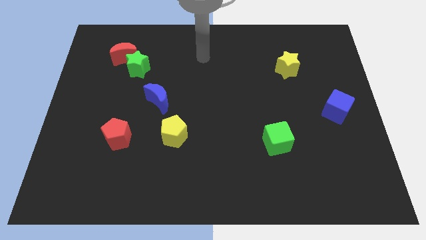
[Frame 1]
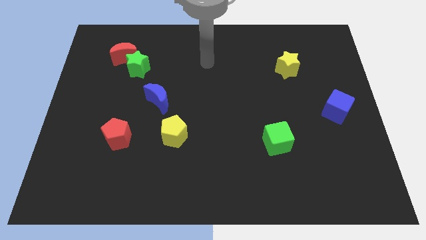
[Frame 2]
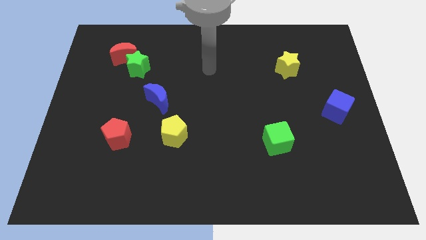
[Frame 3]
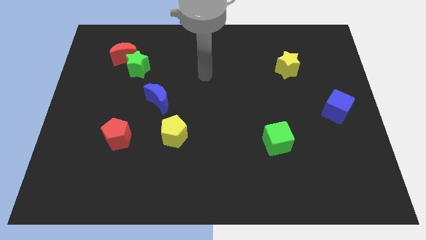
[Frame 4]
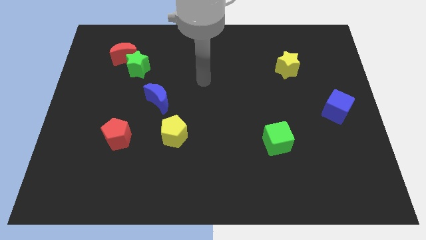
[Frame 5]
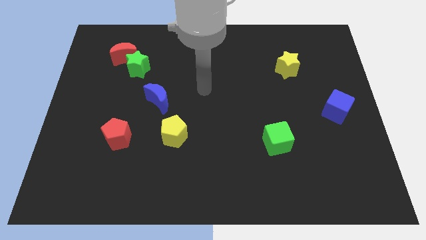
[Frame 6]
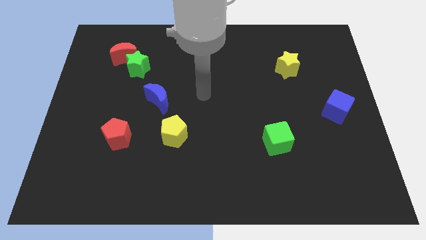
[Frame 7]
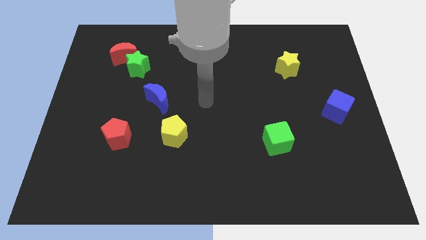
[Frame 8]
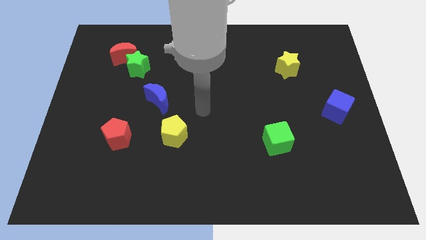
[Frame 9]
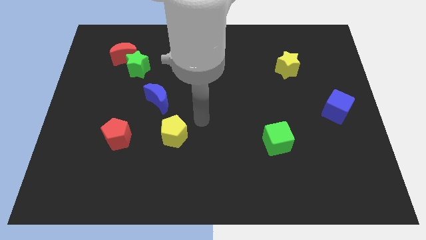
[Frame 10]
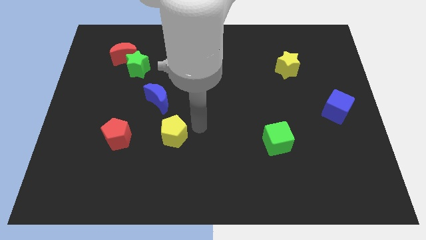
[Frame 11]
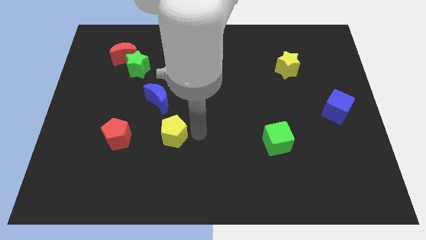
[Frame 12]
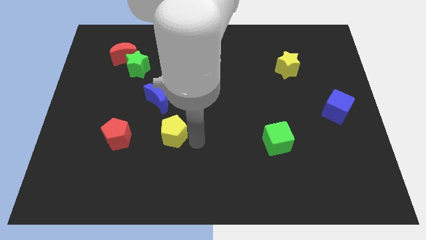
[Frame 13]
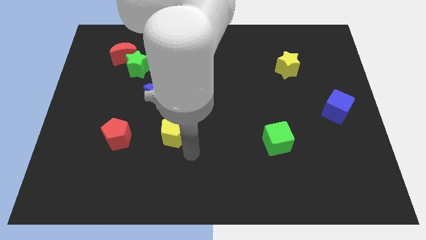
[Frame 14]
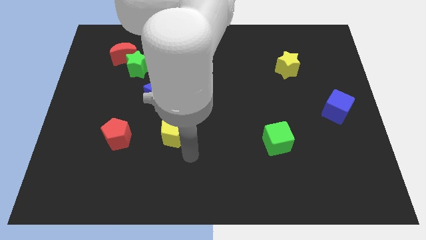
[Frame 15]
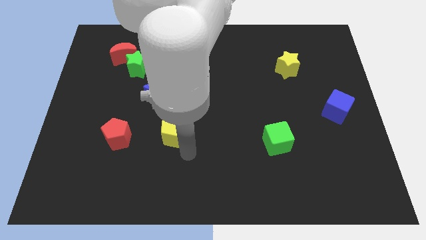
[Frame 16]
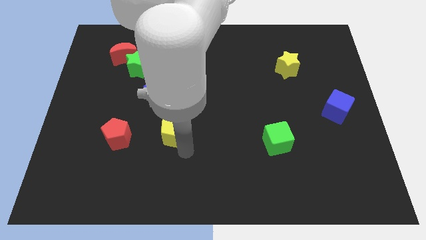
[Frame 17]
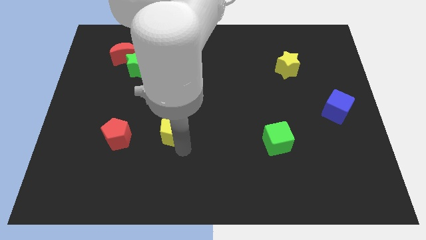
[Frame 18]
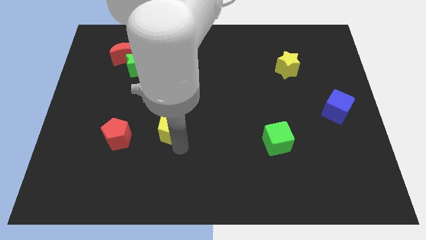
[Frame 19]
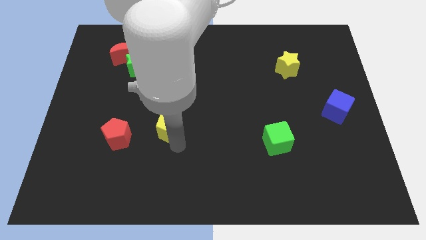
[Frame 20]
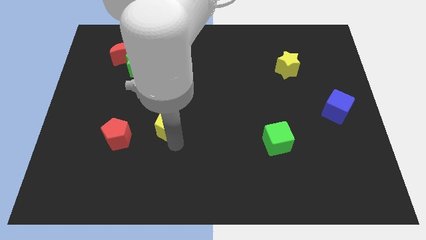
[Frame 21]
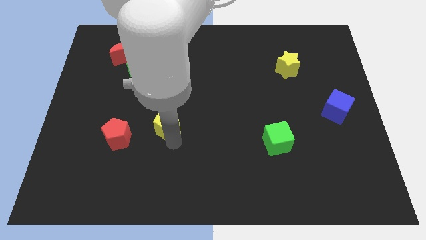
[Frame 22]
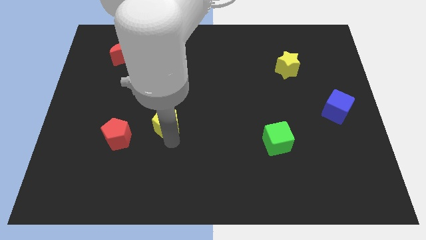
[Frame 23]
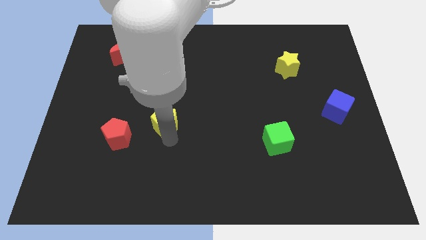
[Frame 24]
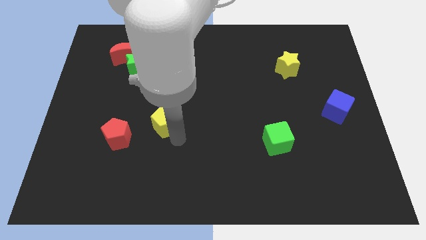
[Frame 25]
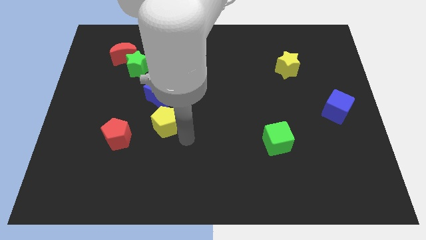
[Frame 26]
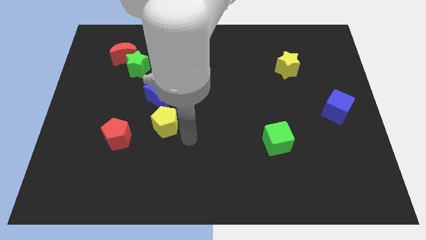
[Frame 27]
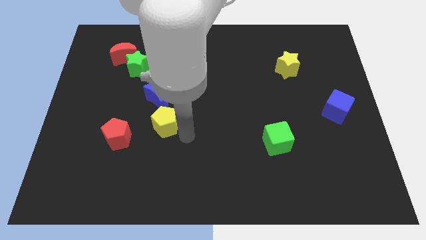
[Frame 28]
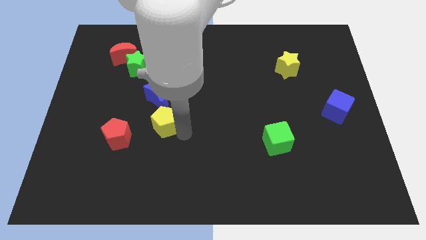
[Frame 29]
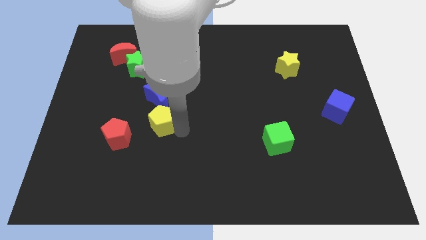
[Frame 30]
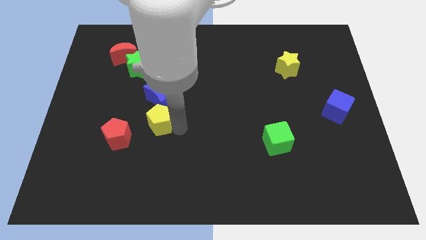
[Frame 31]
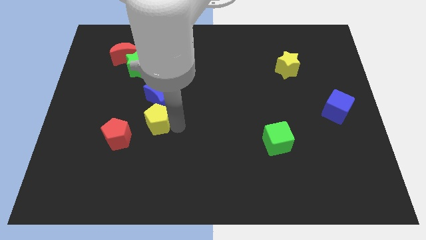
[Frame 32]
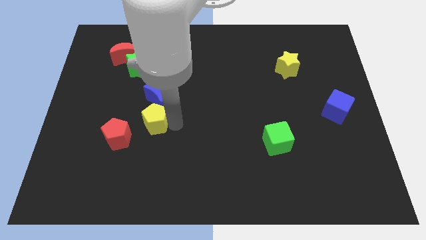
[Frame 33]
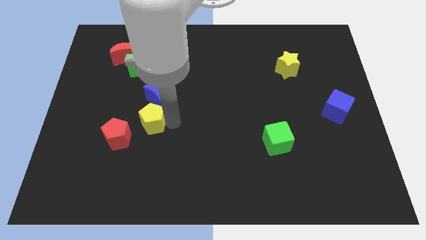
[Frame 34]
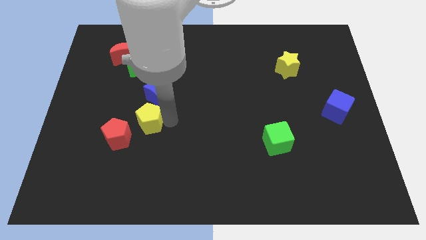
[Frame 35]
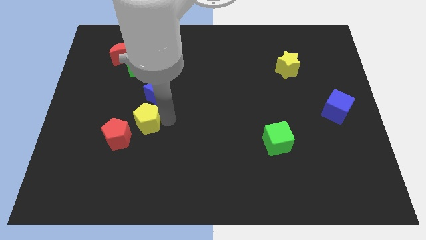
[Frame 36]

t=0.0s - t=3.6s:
push the yellow pentagon upwards and then to the left a bit

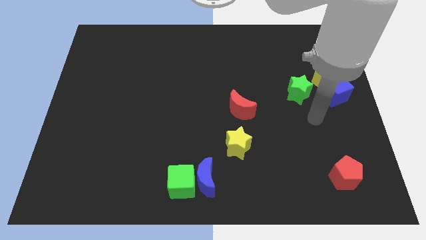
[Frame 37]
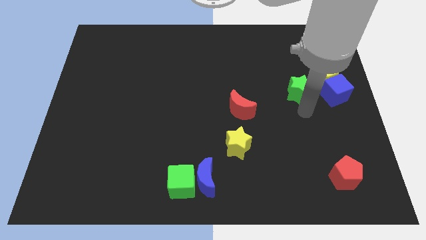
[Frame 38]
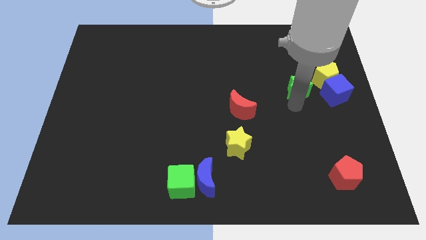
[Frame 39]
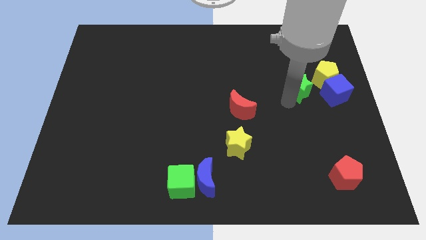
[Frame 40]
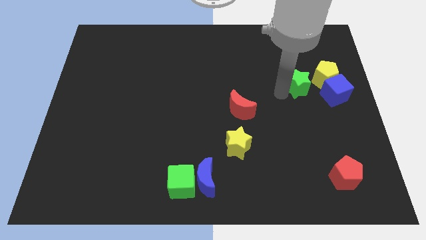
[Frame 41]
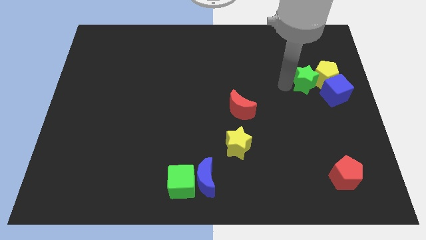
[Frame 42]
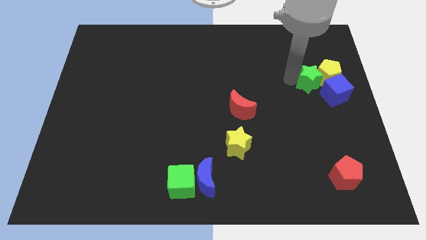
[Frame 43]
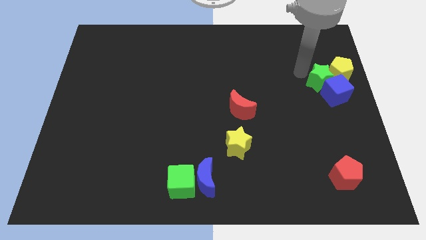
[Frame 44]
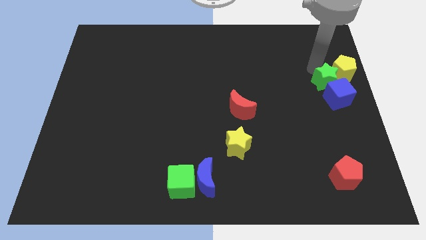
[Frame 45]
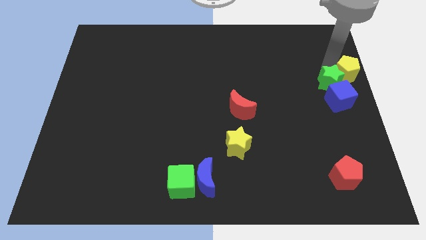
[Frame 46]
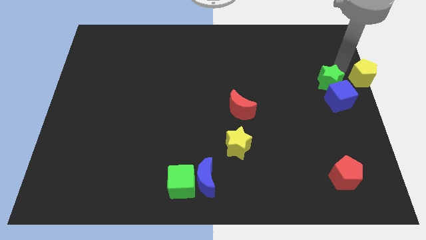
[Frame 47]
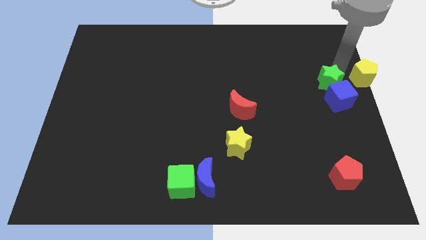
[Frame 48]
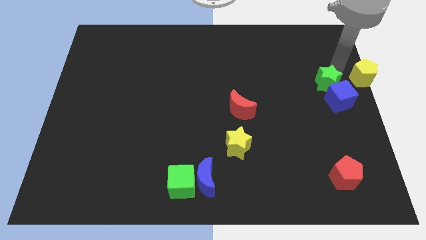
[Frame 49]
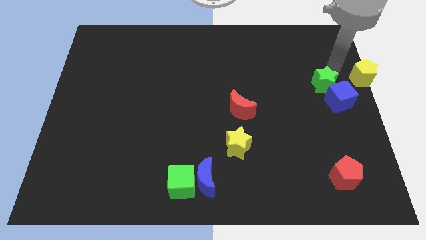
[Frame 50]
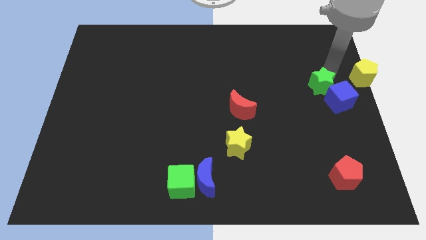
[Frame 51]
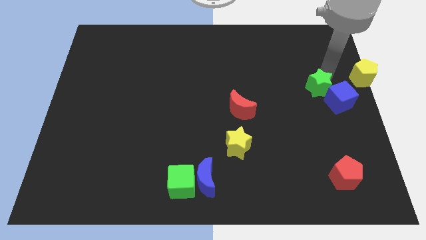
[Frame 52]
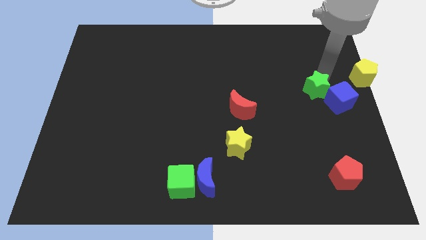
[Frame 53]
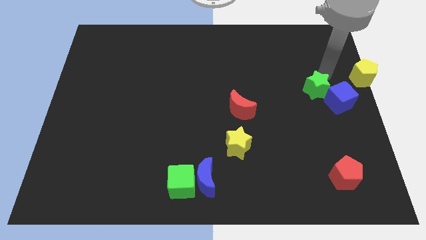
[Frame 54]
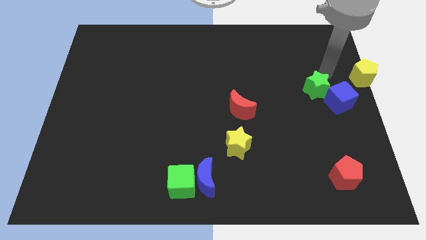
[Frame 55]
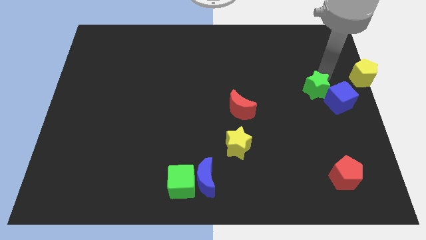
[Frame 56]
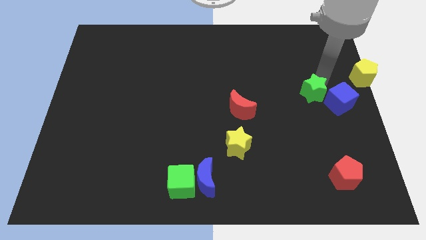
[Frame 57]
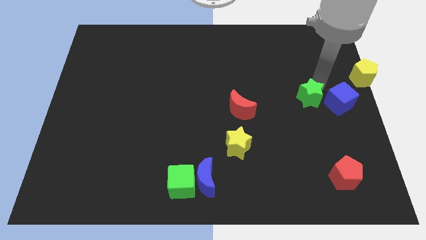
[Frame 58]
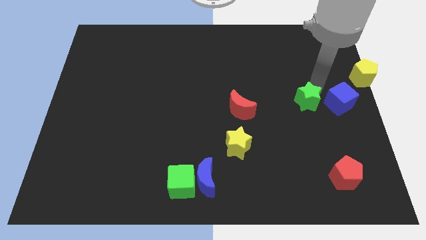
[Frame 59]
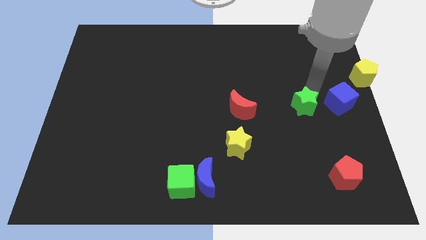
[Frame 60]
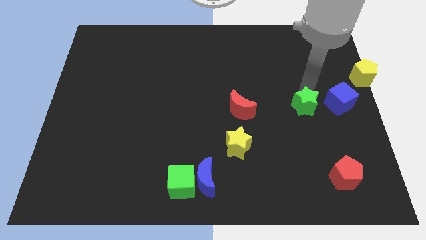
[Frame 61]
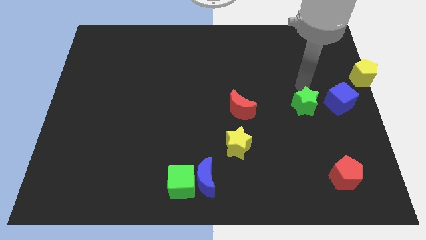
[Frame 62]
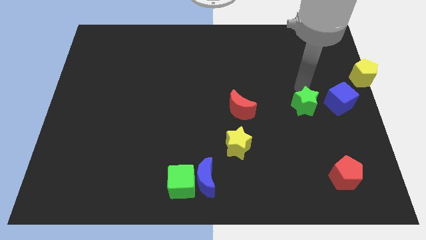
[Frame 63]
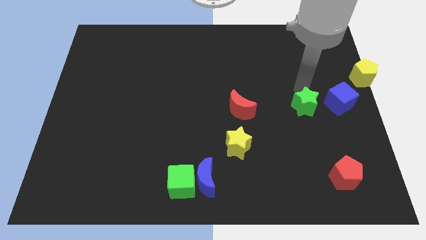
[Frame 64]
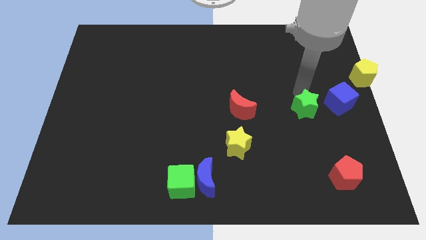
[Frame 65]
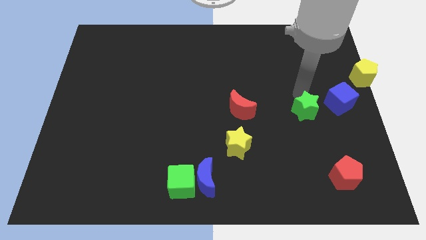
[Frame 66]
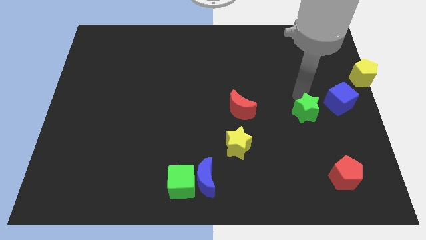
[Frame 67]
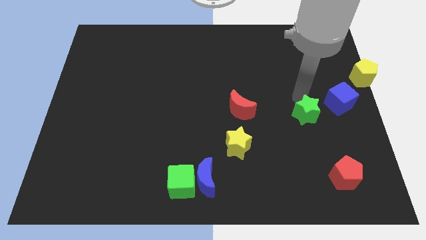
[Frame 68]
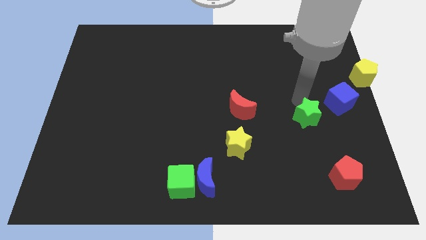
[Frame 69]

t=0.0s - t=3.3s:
slightly slide the green star down

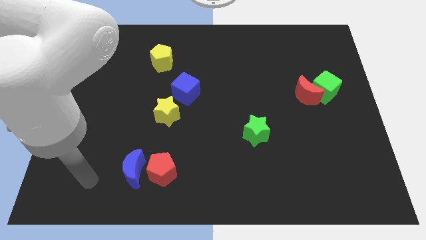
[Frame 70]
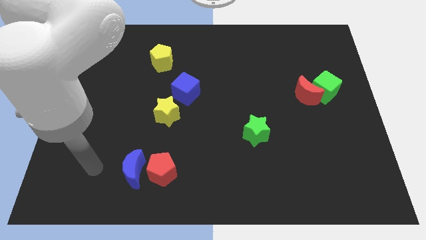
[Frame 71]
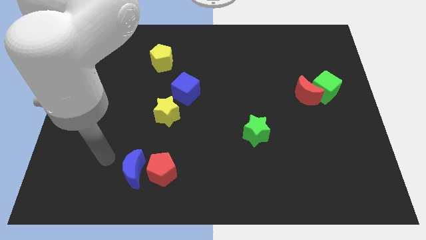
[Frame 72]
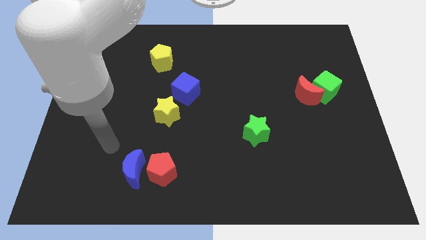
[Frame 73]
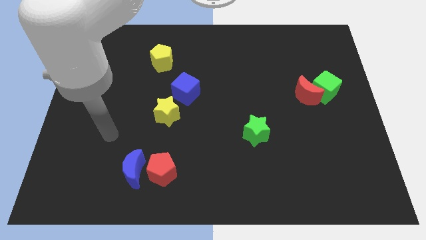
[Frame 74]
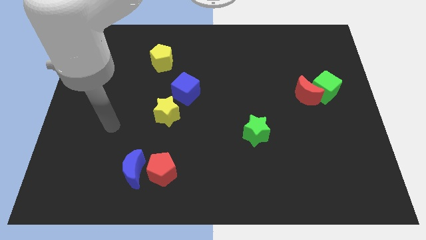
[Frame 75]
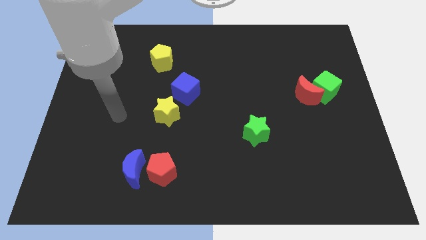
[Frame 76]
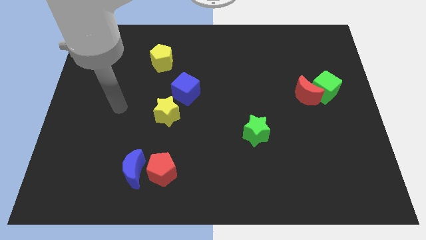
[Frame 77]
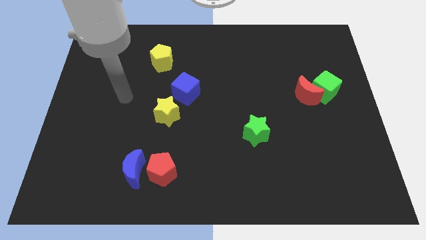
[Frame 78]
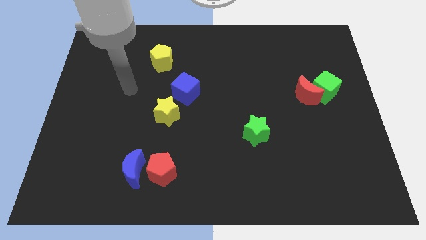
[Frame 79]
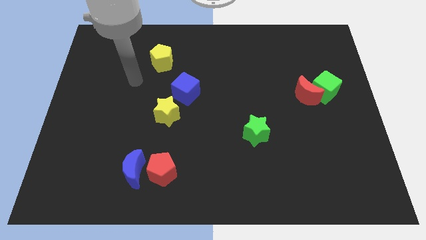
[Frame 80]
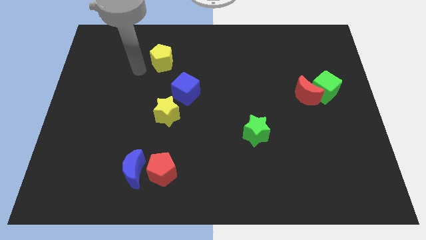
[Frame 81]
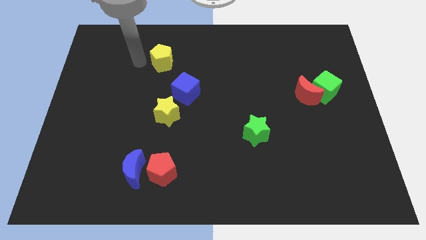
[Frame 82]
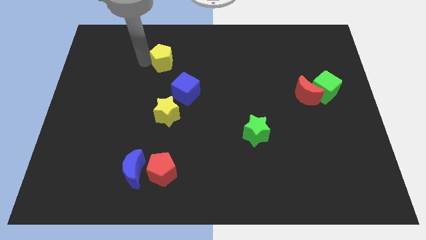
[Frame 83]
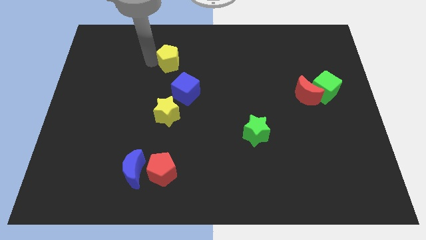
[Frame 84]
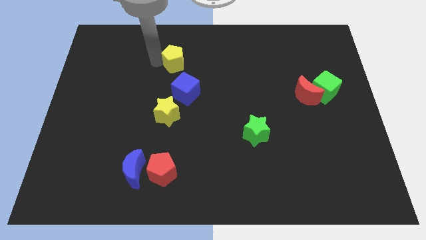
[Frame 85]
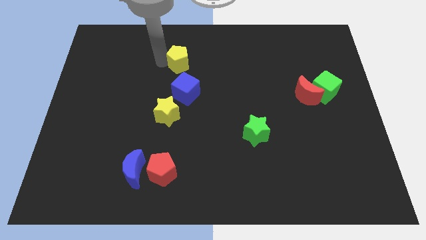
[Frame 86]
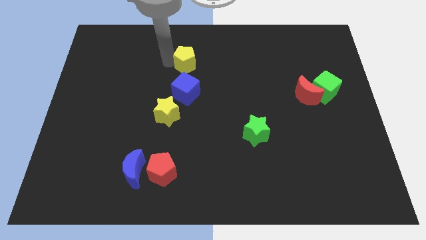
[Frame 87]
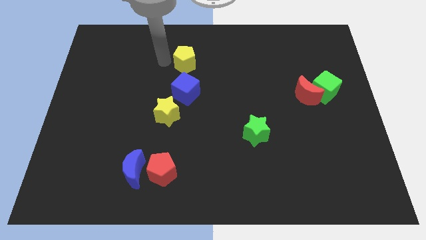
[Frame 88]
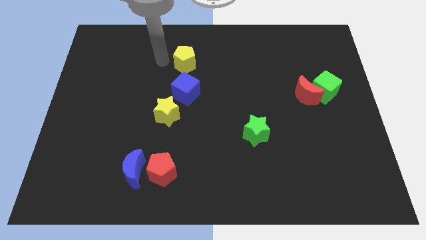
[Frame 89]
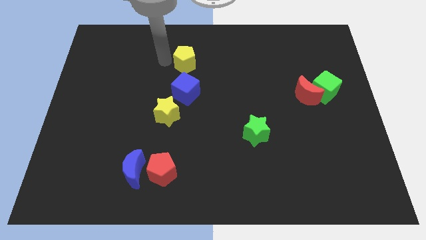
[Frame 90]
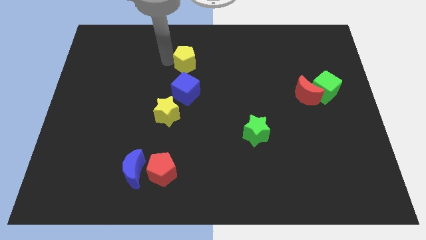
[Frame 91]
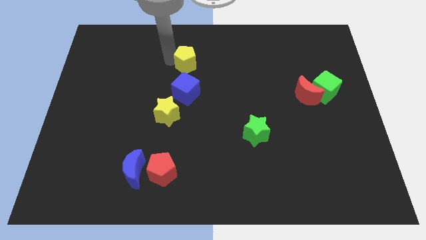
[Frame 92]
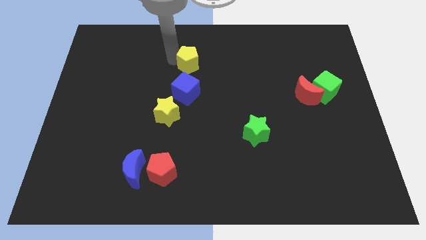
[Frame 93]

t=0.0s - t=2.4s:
push the yellow pentagon to the right a bit
